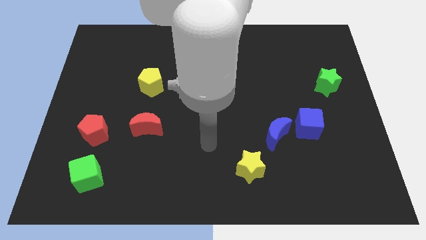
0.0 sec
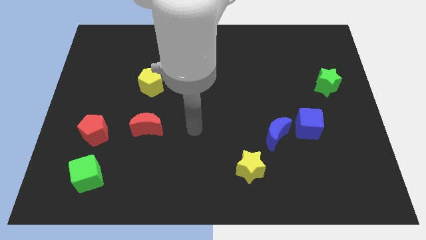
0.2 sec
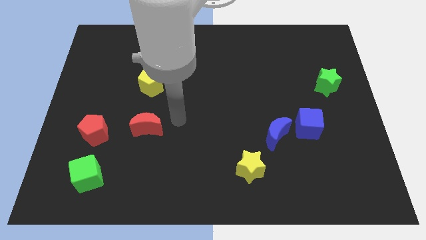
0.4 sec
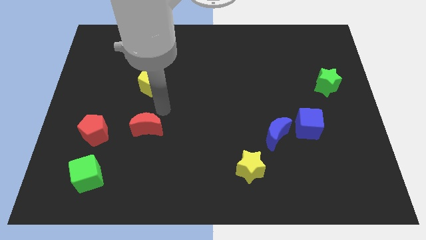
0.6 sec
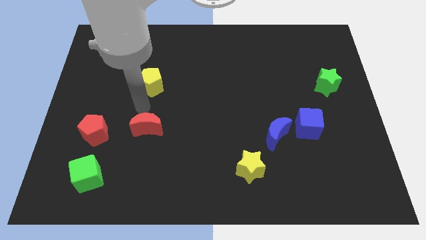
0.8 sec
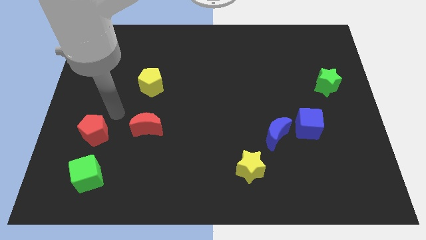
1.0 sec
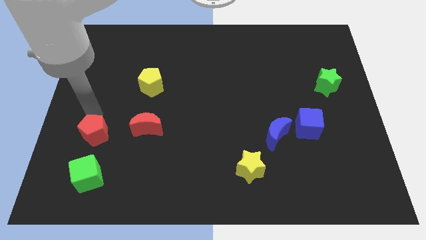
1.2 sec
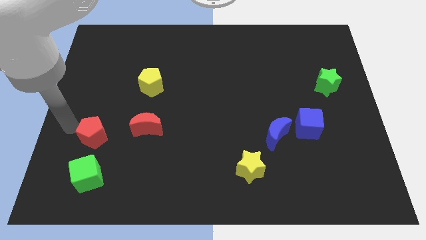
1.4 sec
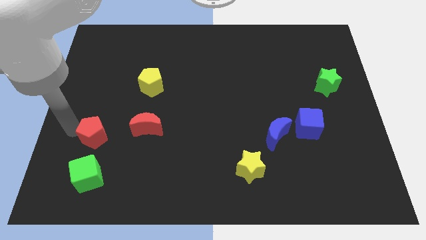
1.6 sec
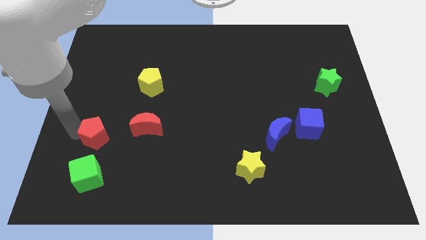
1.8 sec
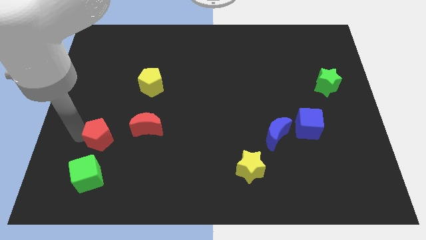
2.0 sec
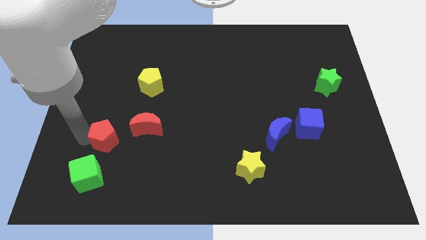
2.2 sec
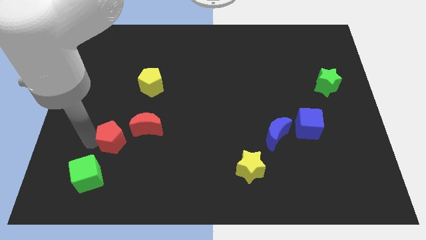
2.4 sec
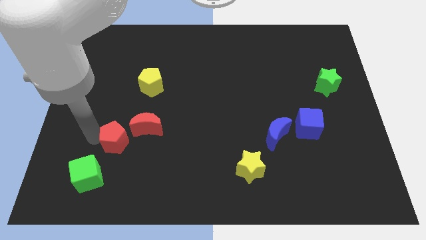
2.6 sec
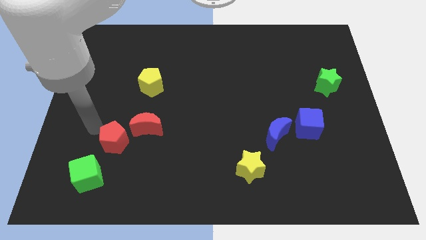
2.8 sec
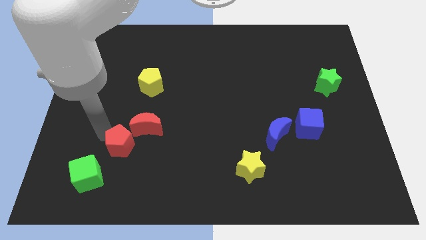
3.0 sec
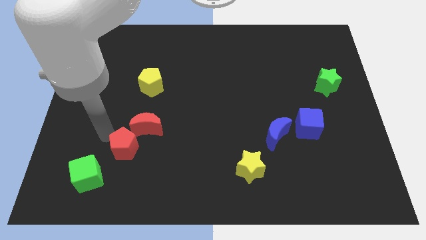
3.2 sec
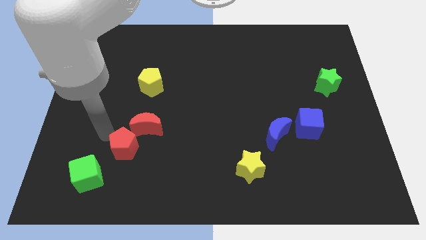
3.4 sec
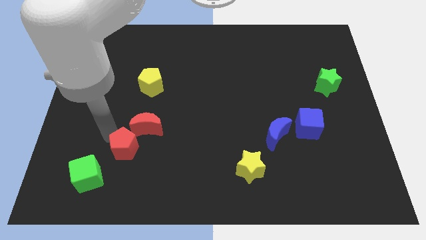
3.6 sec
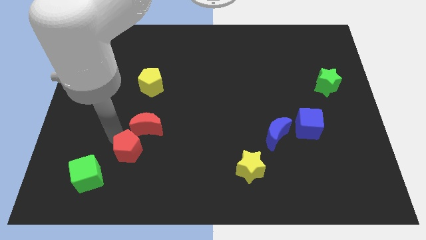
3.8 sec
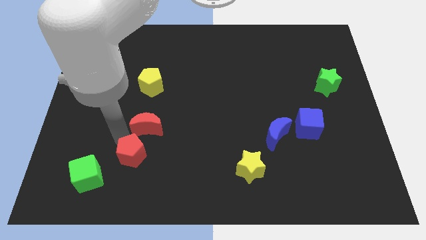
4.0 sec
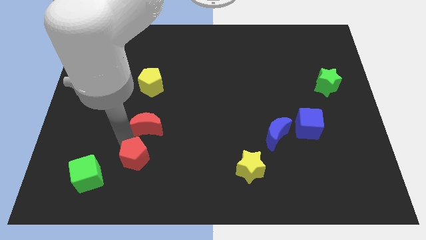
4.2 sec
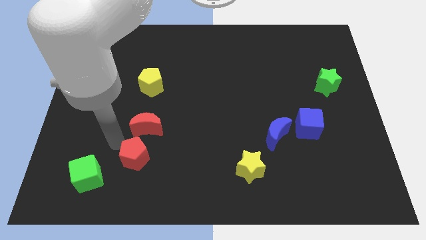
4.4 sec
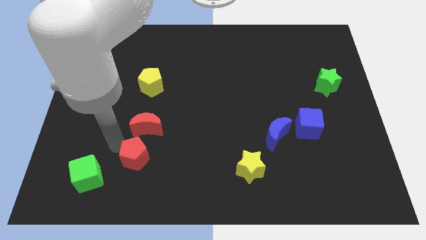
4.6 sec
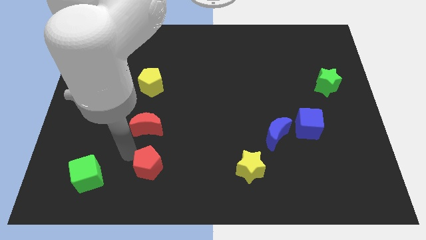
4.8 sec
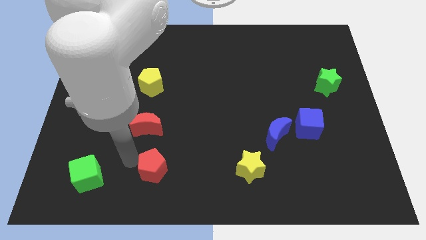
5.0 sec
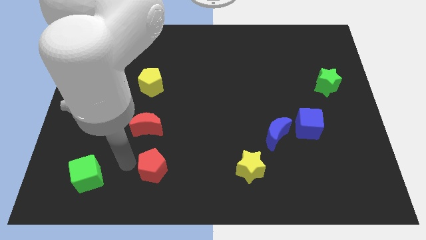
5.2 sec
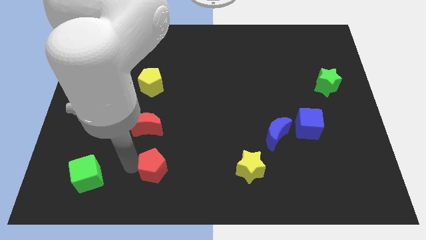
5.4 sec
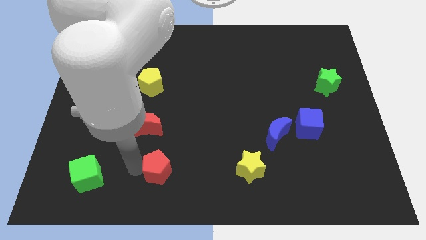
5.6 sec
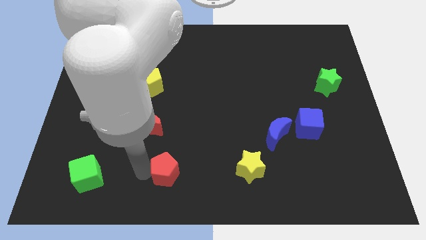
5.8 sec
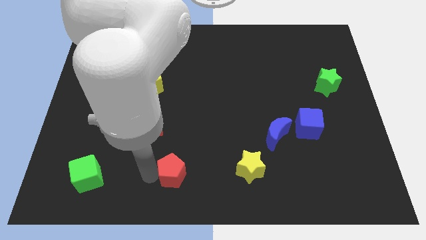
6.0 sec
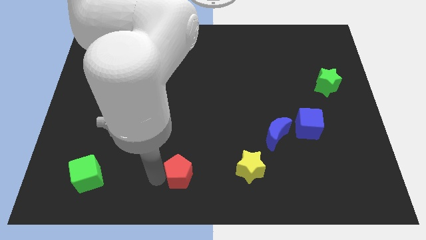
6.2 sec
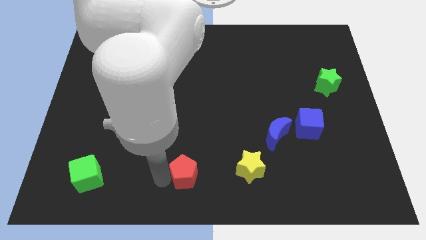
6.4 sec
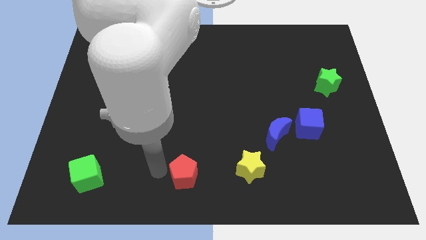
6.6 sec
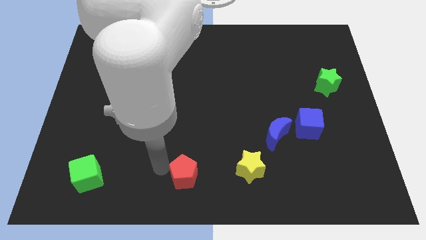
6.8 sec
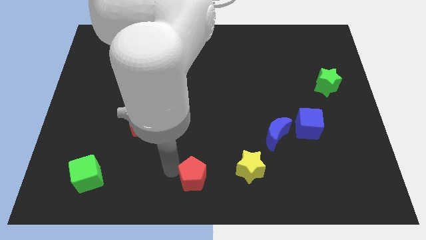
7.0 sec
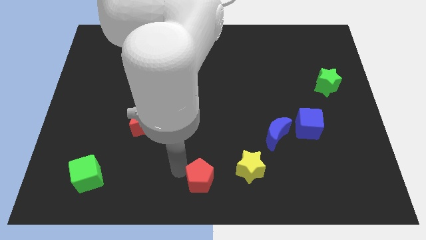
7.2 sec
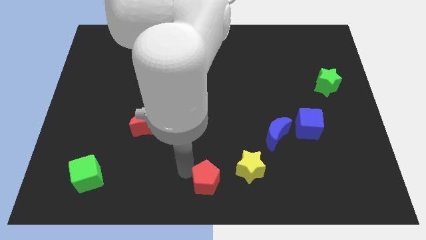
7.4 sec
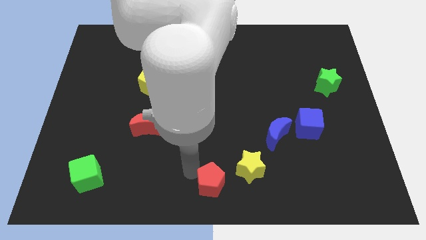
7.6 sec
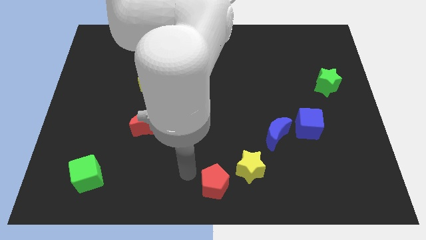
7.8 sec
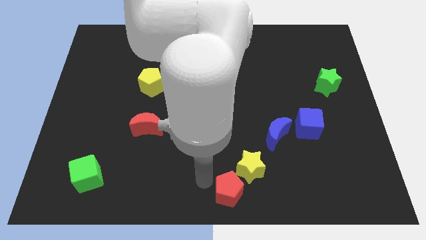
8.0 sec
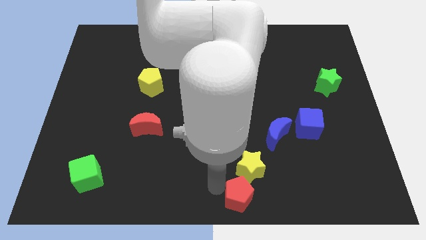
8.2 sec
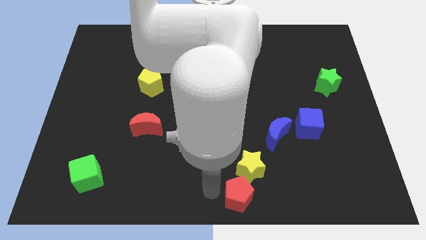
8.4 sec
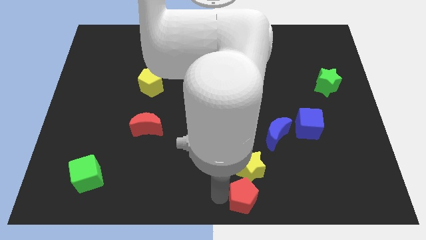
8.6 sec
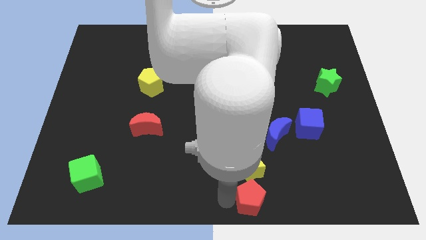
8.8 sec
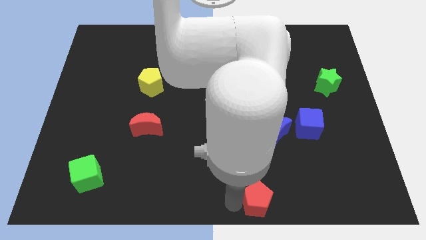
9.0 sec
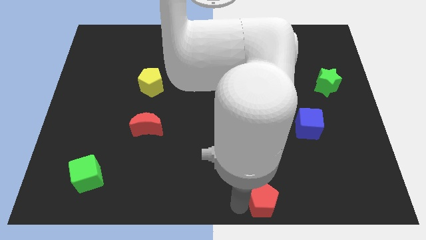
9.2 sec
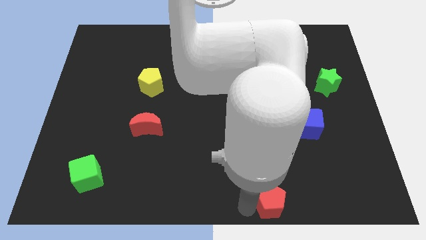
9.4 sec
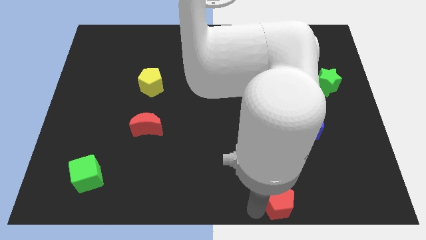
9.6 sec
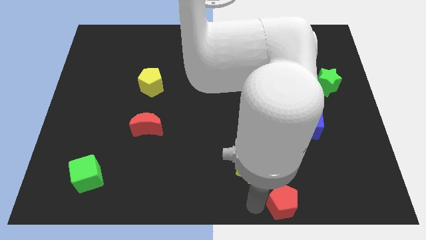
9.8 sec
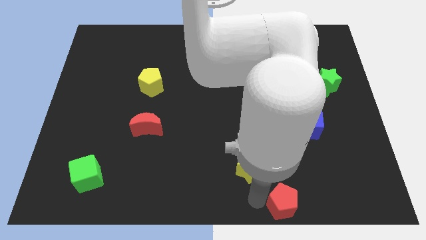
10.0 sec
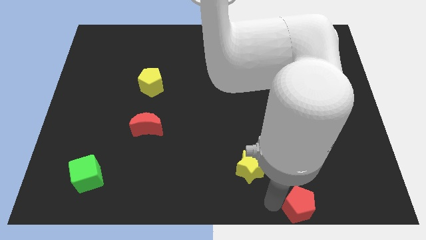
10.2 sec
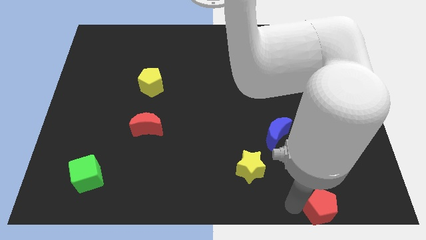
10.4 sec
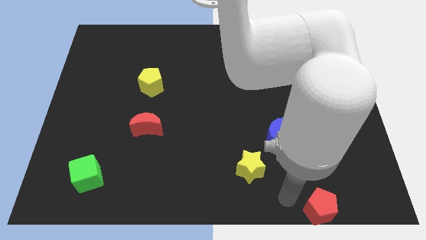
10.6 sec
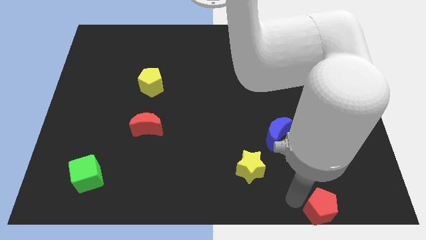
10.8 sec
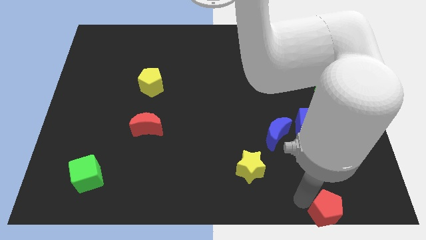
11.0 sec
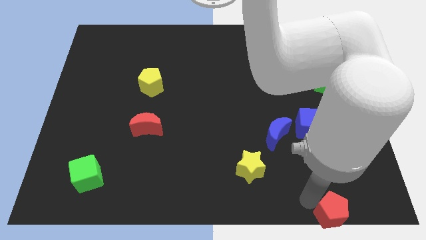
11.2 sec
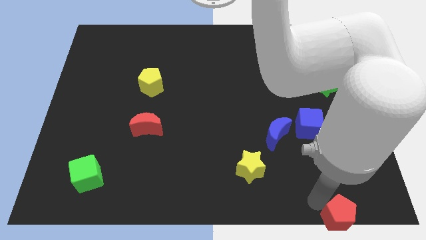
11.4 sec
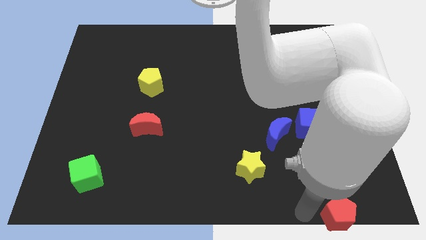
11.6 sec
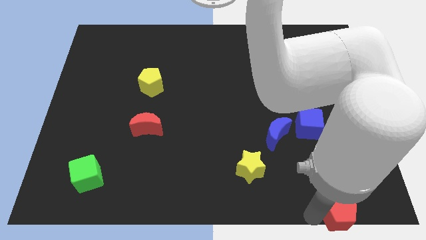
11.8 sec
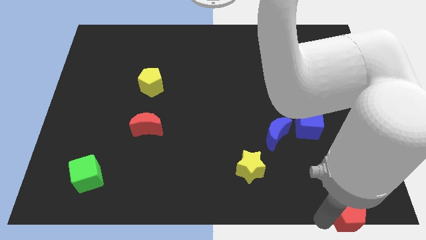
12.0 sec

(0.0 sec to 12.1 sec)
move the red pentagon to the bottom right

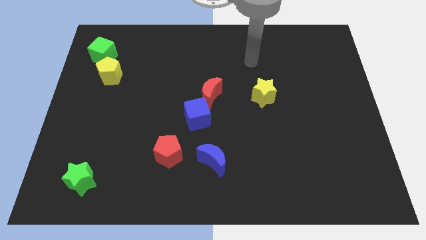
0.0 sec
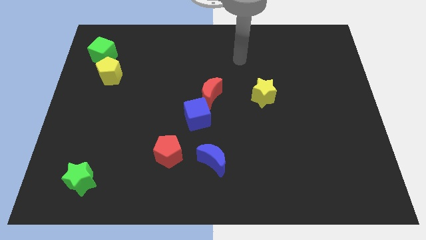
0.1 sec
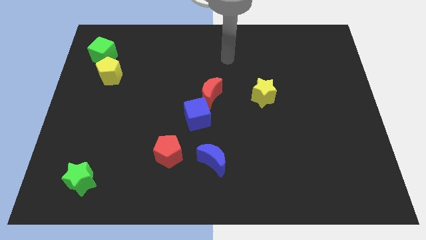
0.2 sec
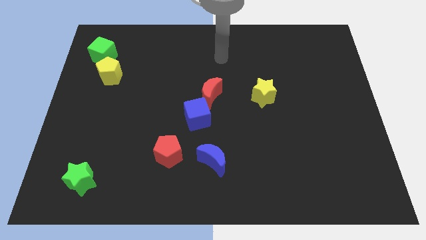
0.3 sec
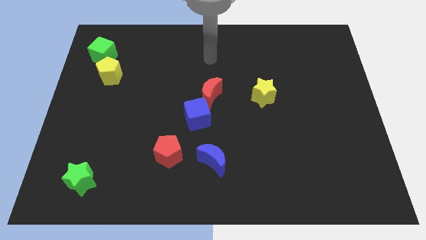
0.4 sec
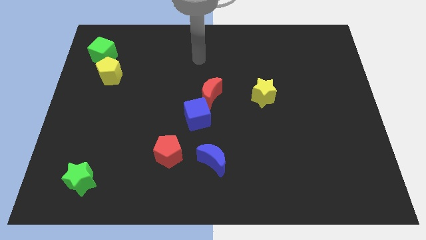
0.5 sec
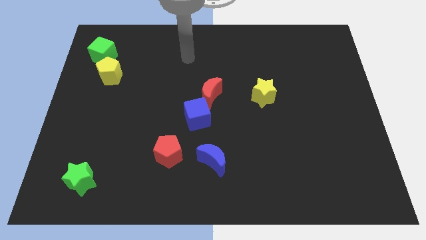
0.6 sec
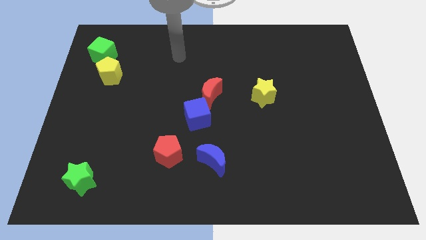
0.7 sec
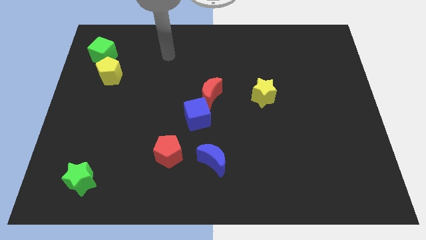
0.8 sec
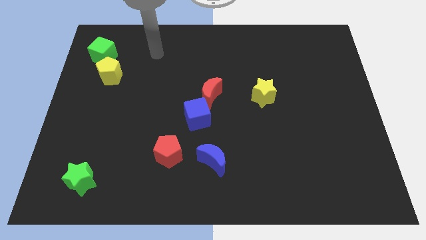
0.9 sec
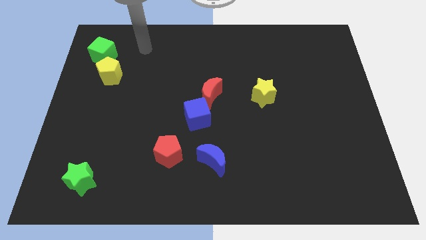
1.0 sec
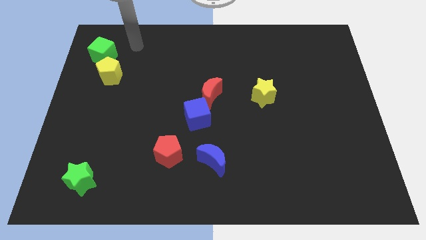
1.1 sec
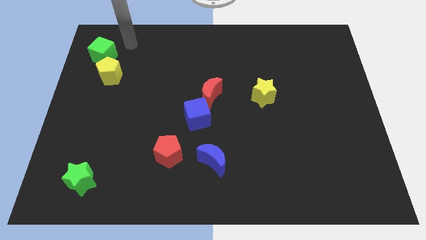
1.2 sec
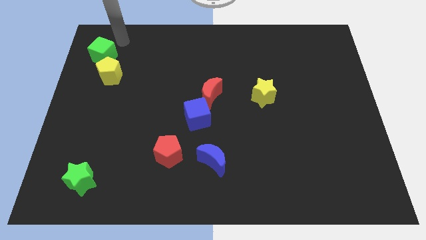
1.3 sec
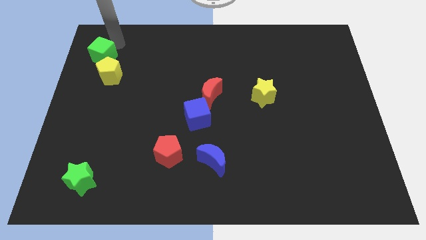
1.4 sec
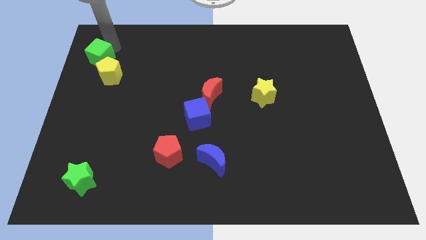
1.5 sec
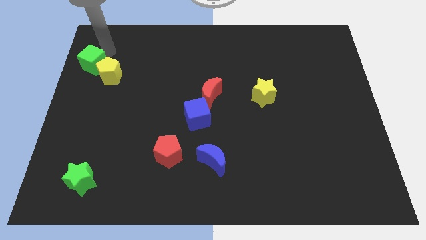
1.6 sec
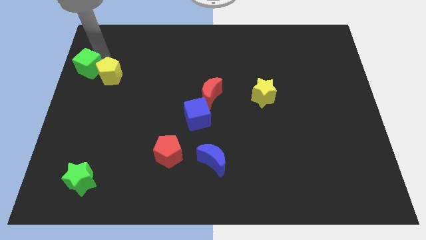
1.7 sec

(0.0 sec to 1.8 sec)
push the green cube to the center left
